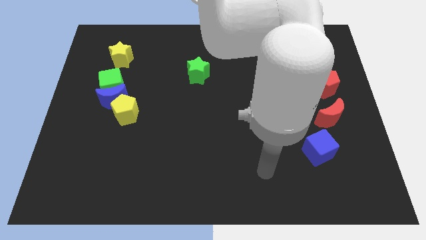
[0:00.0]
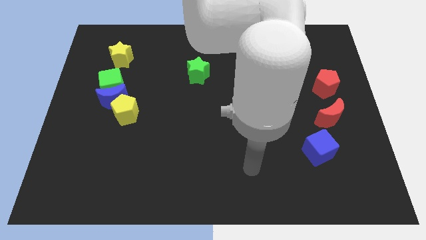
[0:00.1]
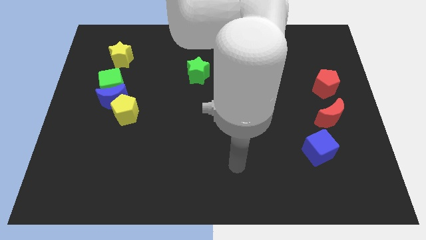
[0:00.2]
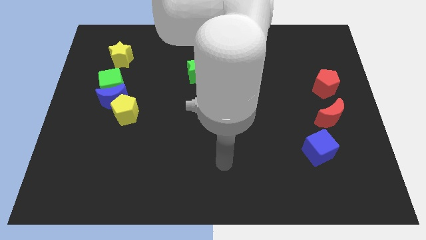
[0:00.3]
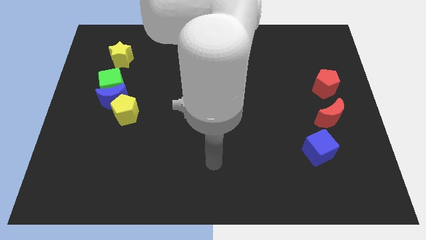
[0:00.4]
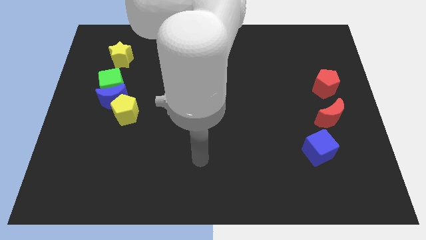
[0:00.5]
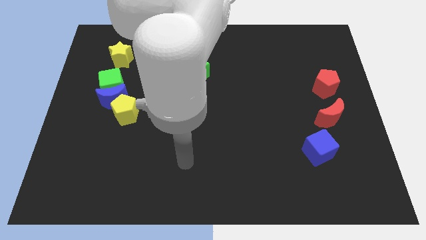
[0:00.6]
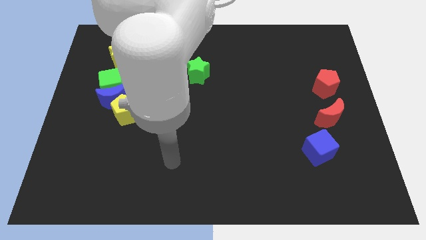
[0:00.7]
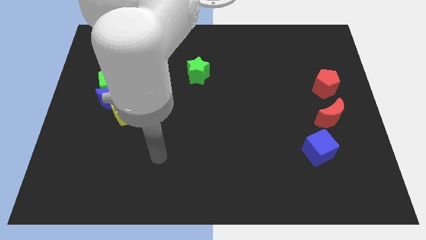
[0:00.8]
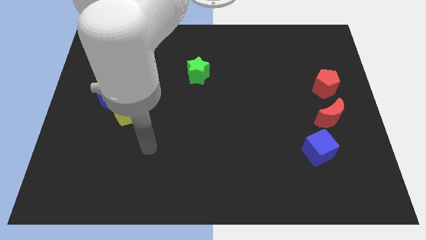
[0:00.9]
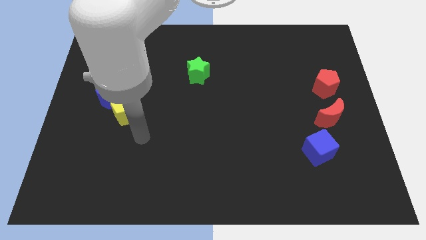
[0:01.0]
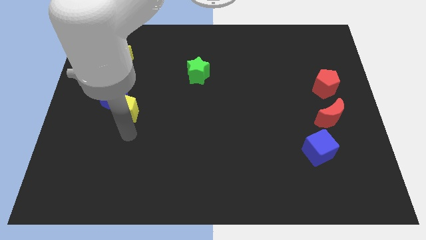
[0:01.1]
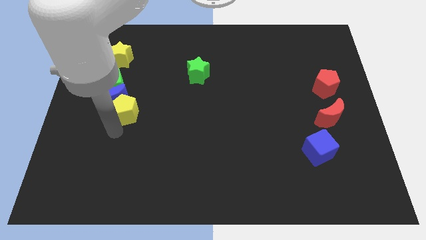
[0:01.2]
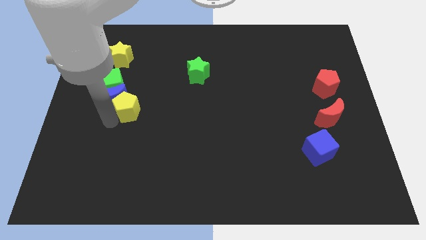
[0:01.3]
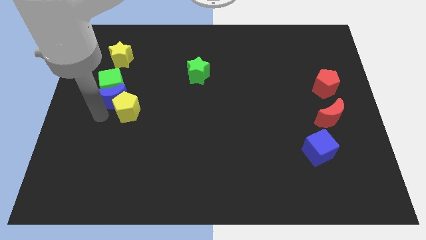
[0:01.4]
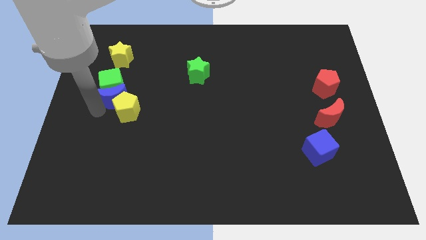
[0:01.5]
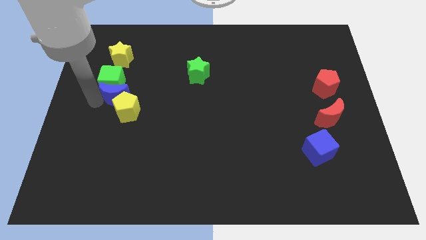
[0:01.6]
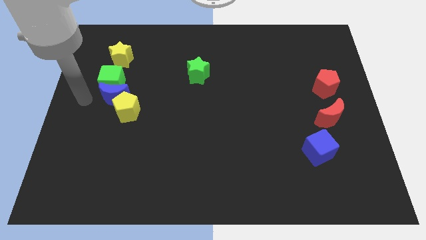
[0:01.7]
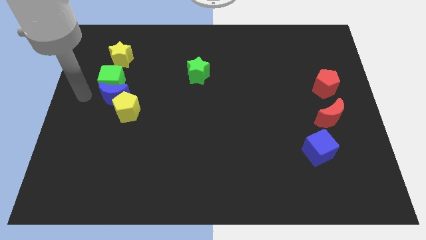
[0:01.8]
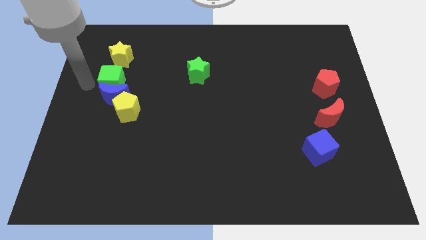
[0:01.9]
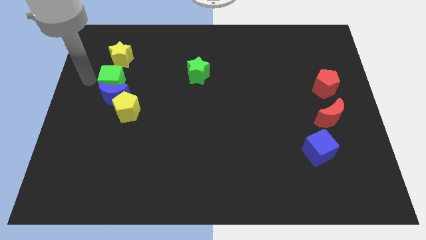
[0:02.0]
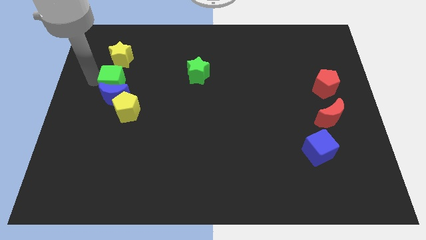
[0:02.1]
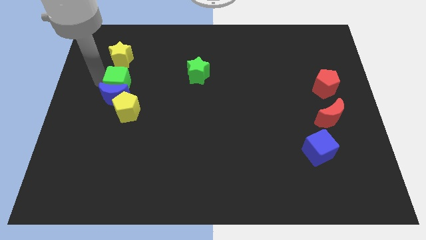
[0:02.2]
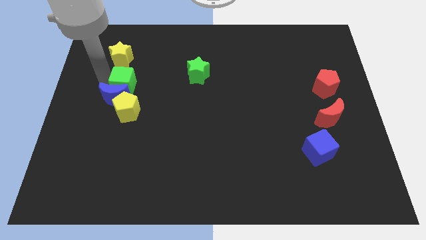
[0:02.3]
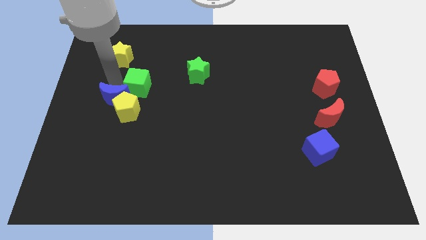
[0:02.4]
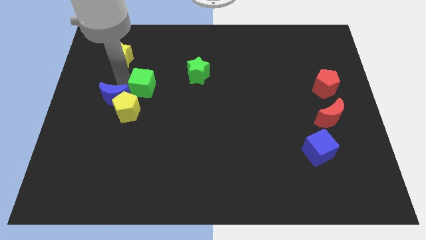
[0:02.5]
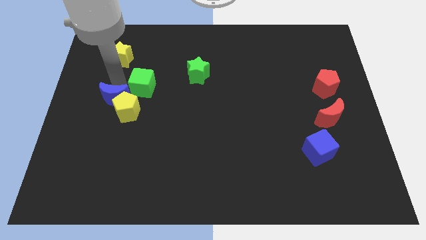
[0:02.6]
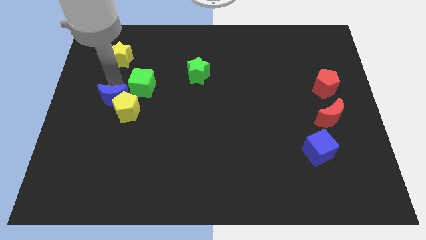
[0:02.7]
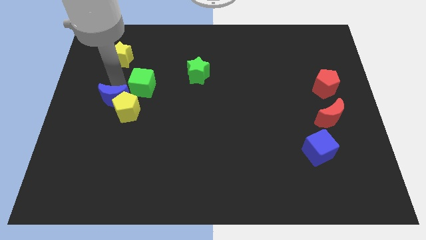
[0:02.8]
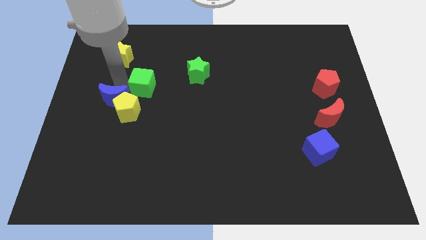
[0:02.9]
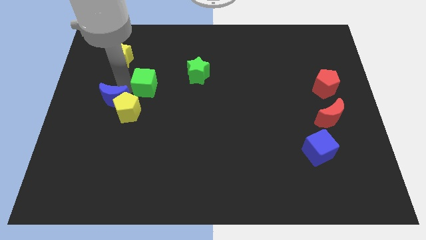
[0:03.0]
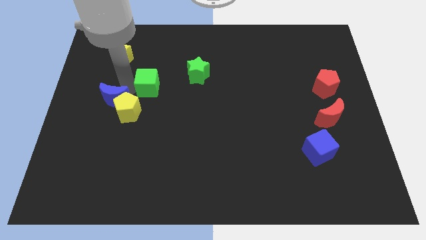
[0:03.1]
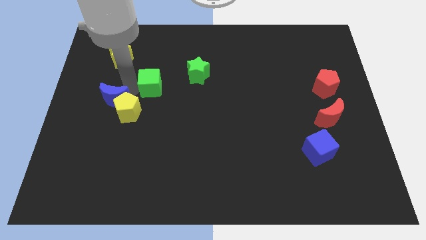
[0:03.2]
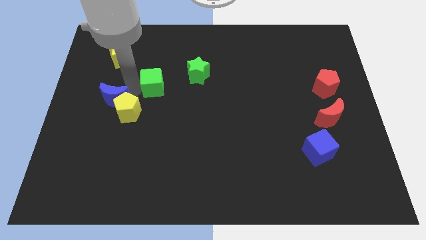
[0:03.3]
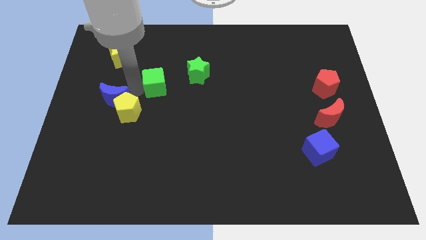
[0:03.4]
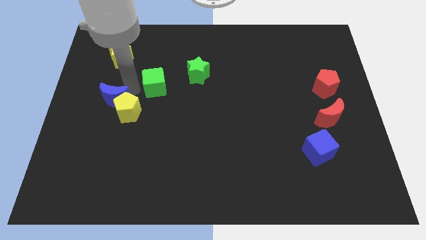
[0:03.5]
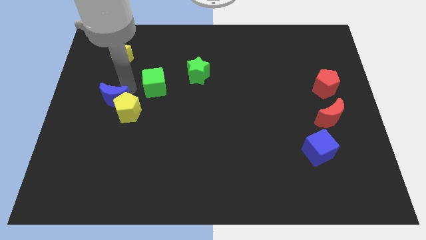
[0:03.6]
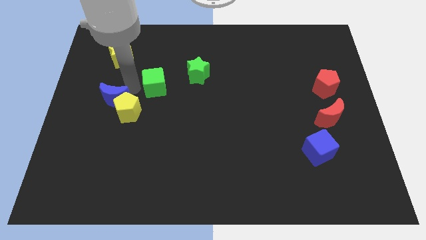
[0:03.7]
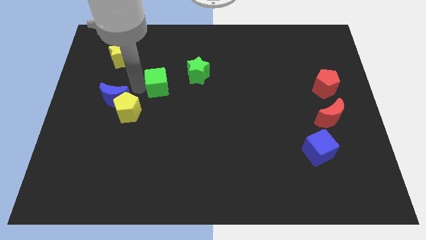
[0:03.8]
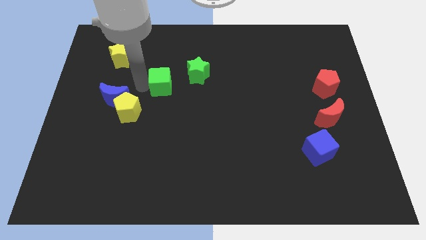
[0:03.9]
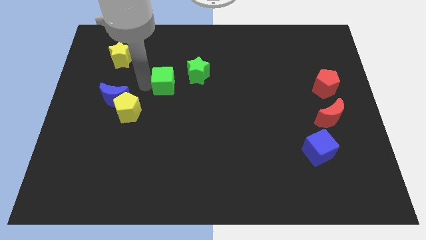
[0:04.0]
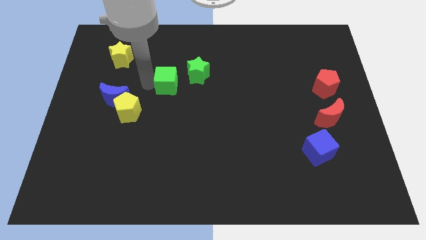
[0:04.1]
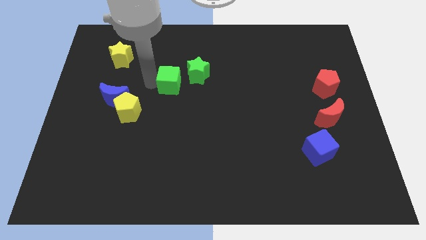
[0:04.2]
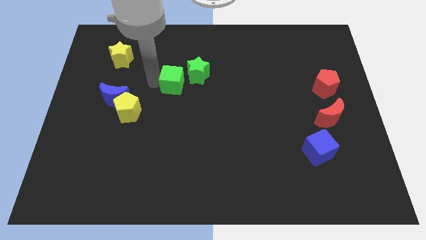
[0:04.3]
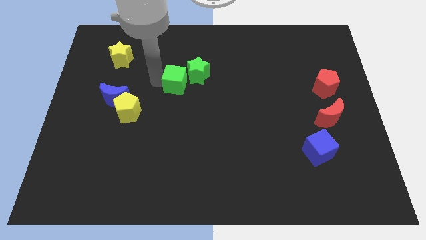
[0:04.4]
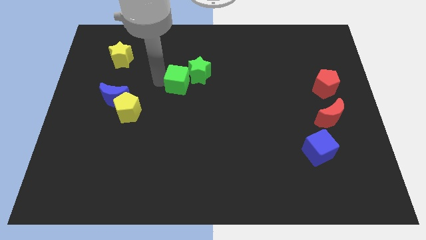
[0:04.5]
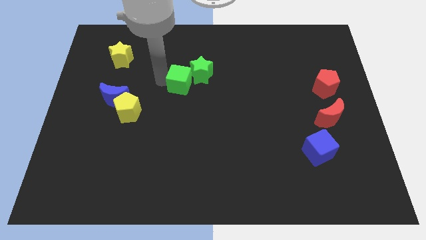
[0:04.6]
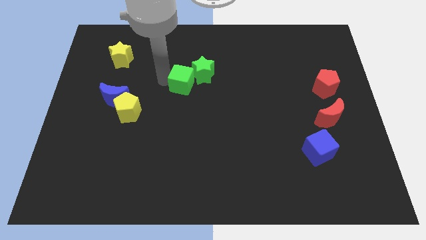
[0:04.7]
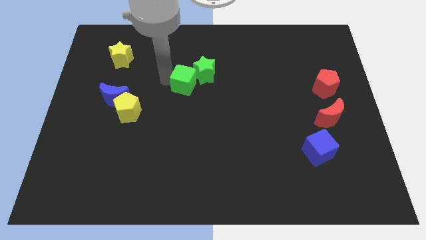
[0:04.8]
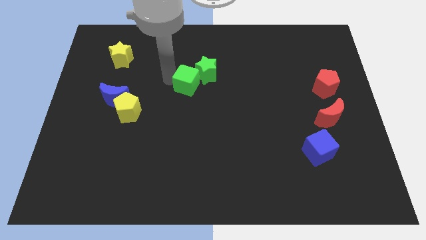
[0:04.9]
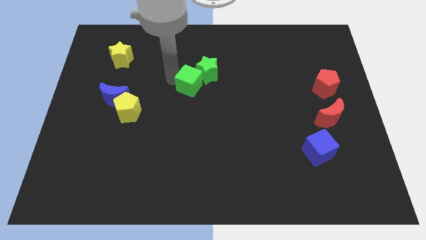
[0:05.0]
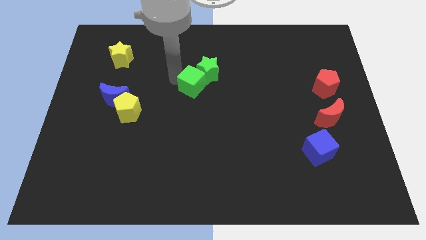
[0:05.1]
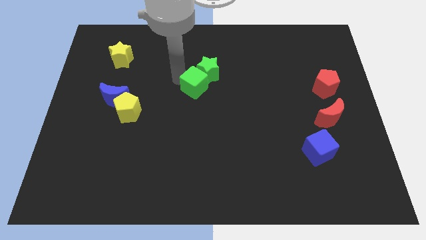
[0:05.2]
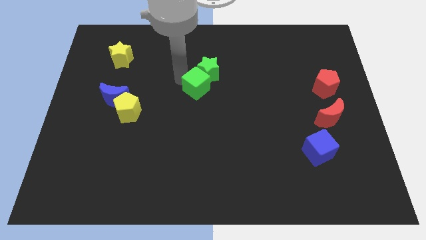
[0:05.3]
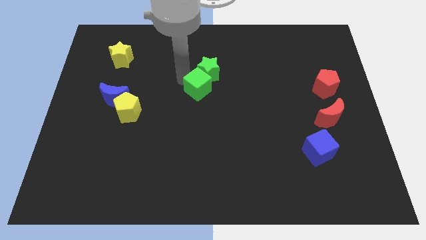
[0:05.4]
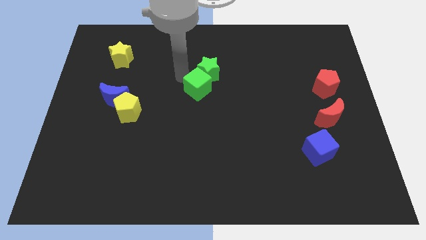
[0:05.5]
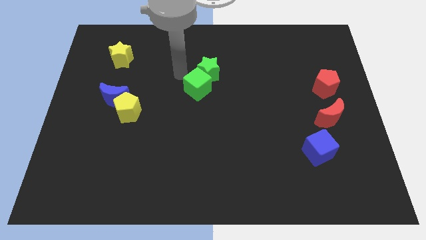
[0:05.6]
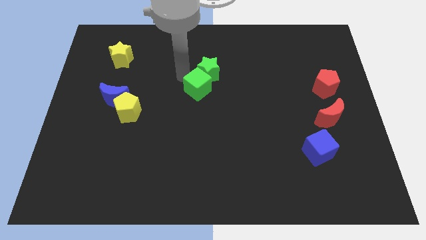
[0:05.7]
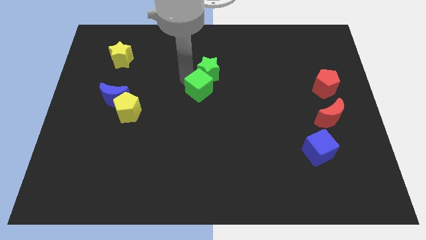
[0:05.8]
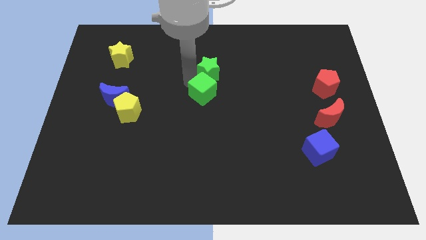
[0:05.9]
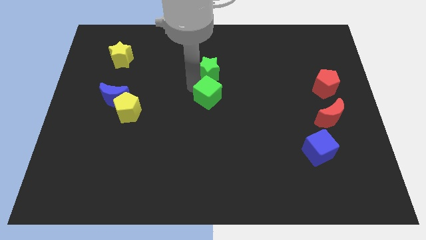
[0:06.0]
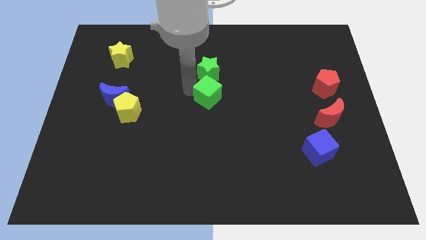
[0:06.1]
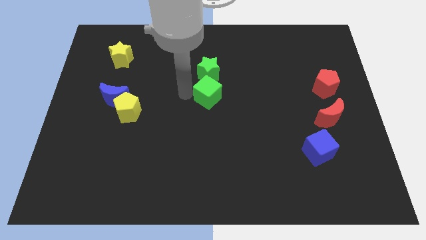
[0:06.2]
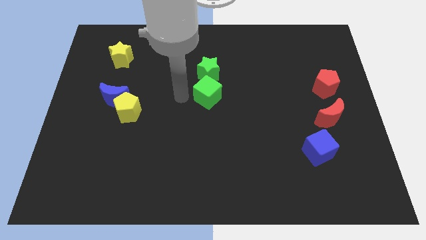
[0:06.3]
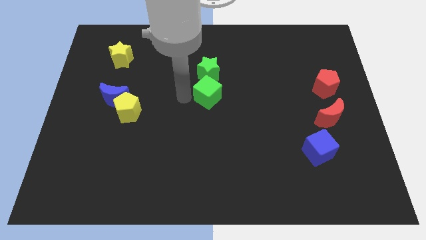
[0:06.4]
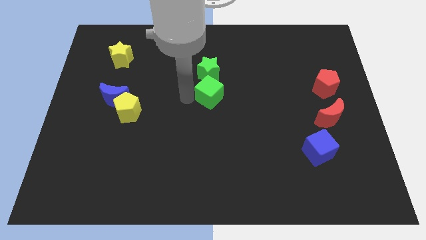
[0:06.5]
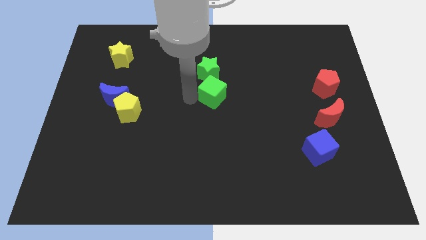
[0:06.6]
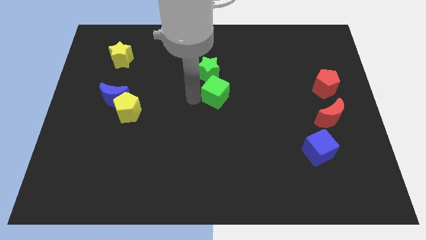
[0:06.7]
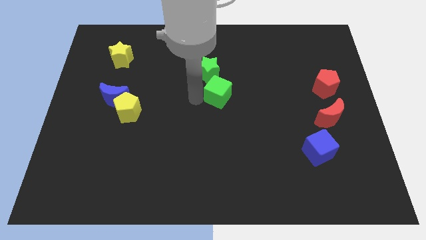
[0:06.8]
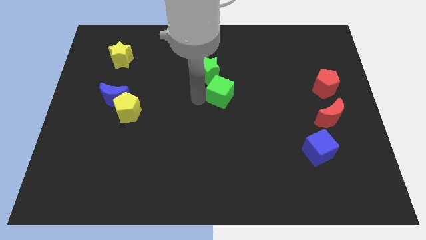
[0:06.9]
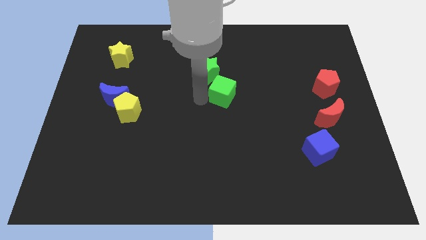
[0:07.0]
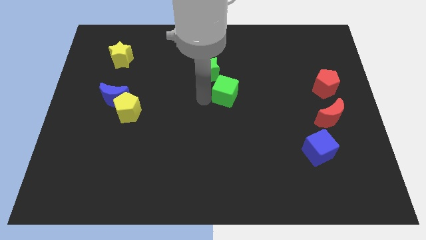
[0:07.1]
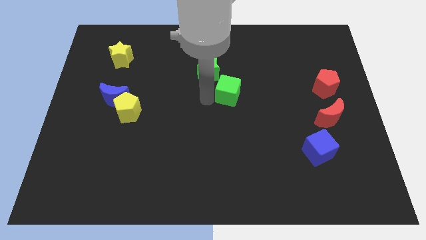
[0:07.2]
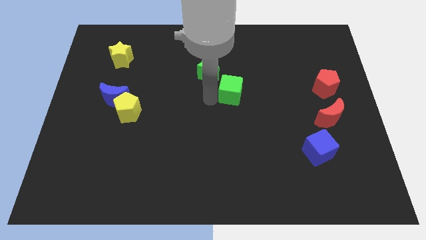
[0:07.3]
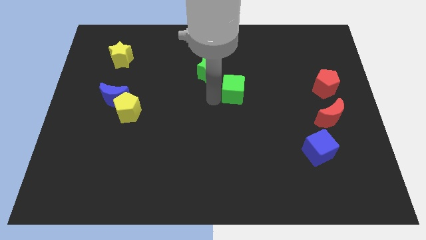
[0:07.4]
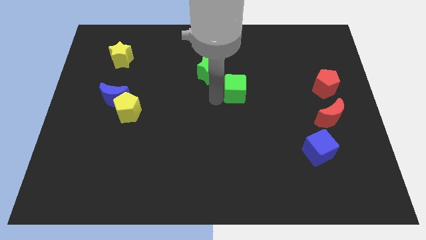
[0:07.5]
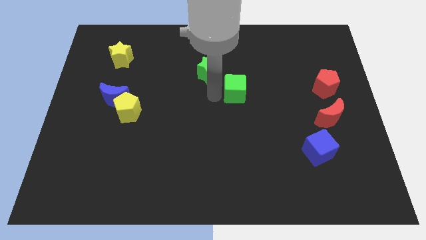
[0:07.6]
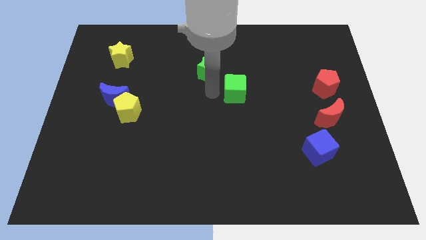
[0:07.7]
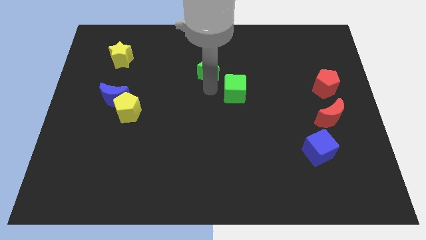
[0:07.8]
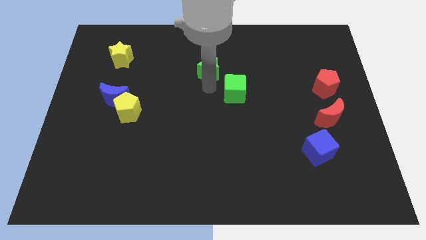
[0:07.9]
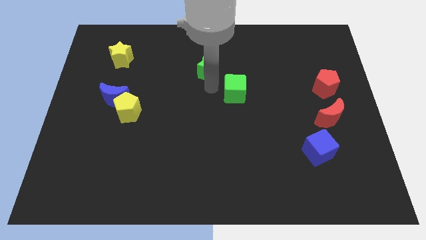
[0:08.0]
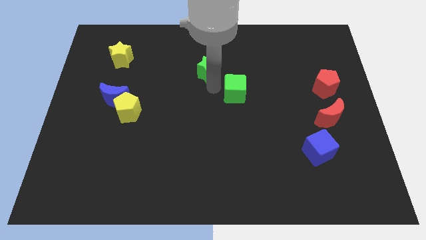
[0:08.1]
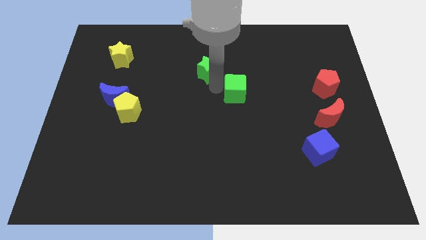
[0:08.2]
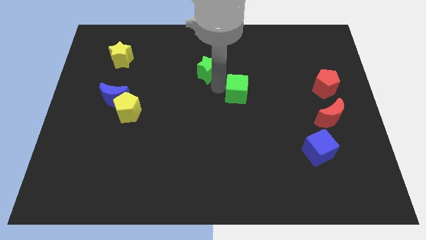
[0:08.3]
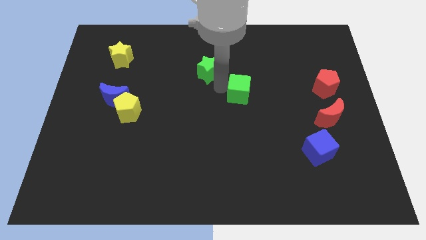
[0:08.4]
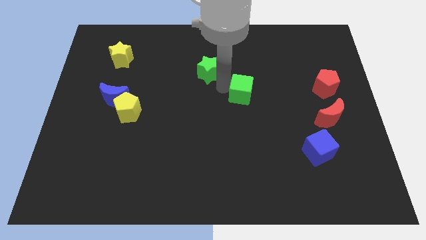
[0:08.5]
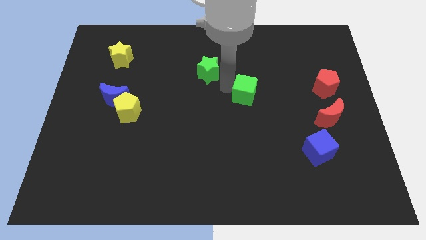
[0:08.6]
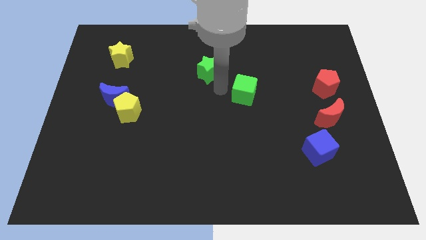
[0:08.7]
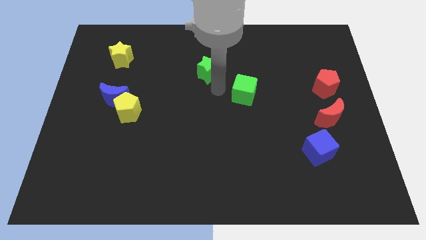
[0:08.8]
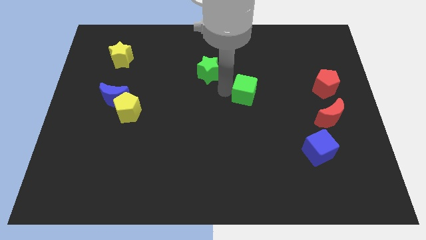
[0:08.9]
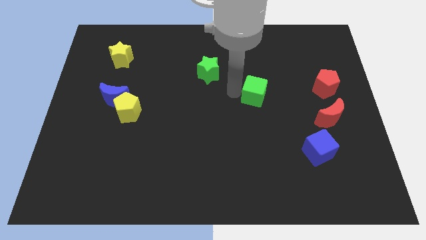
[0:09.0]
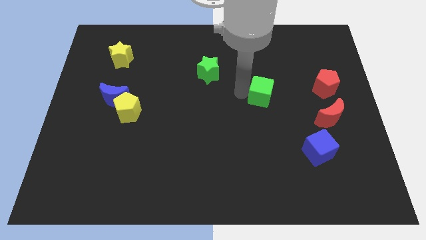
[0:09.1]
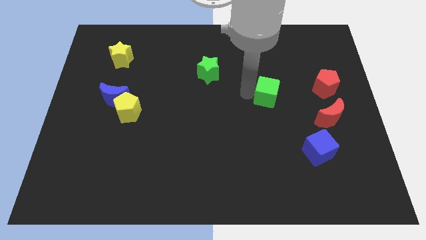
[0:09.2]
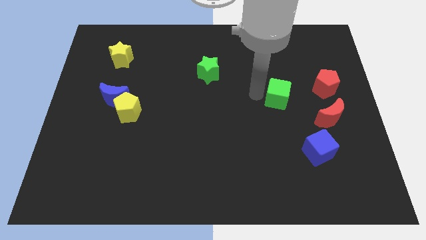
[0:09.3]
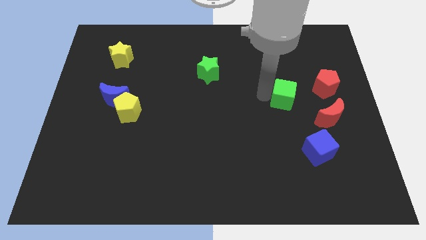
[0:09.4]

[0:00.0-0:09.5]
slide the green cube to the top left of the red moon
